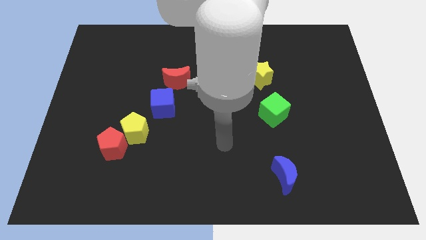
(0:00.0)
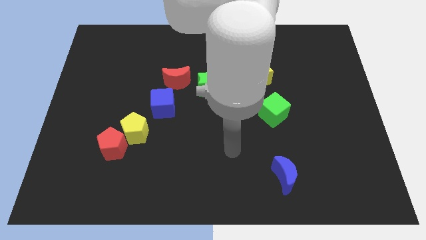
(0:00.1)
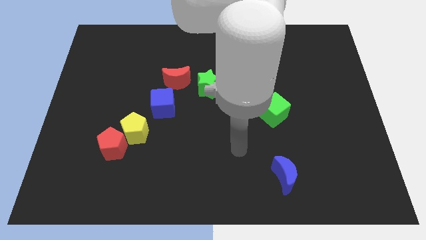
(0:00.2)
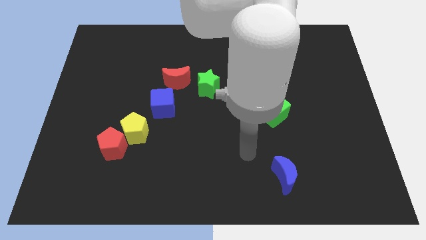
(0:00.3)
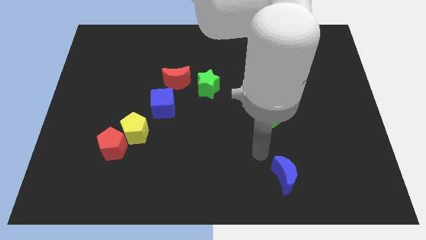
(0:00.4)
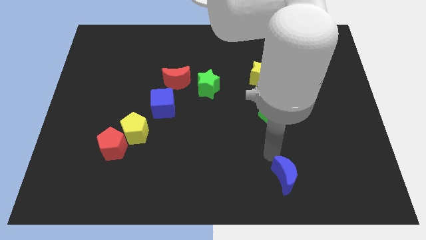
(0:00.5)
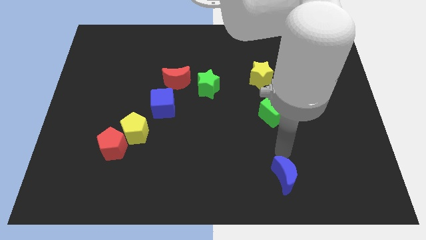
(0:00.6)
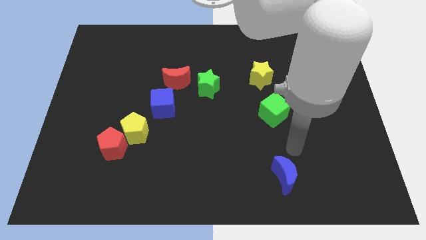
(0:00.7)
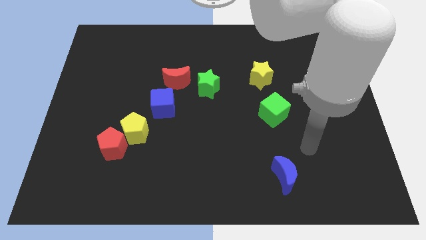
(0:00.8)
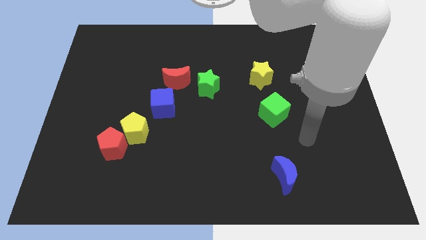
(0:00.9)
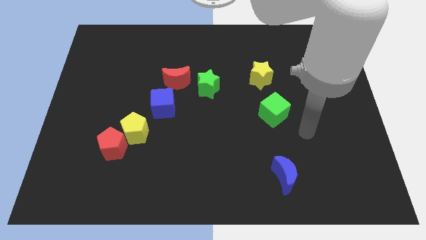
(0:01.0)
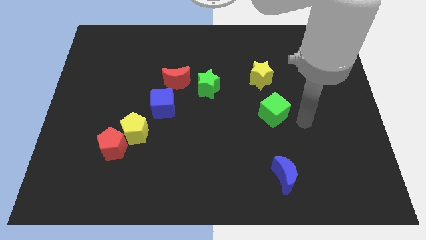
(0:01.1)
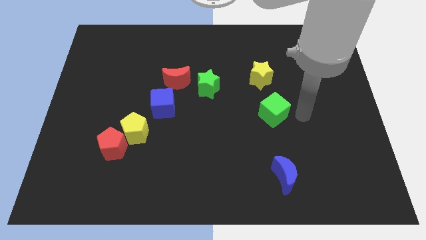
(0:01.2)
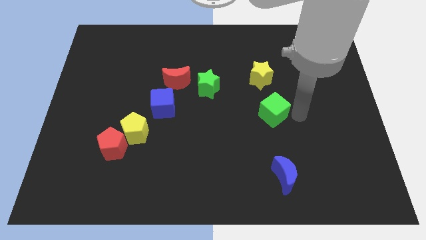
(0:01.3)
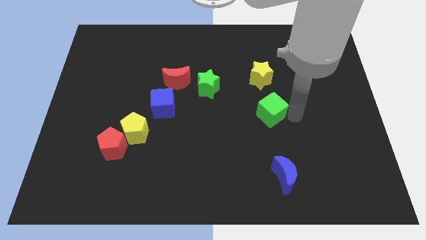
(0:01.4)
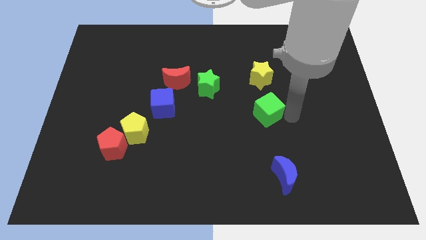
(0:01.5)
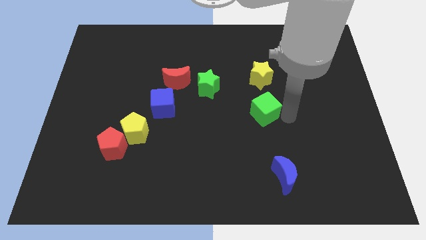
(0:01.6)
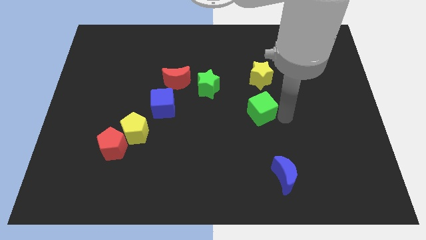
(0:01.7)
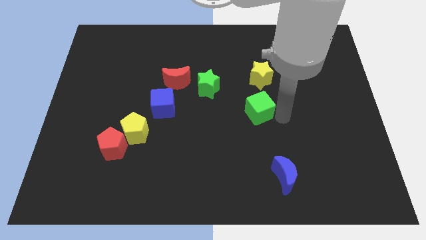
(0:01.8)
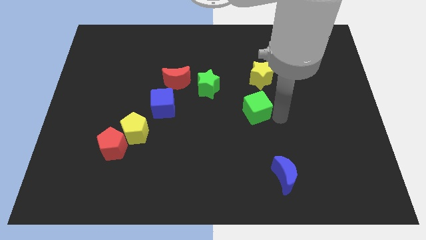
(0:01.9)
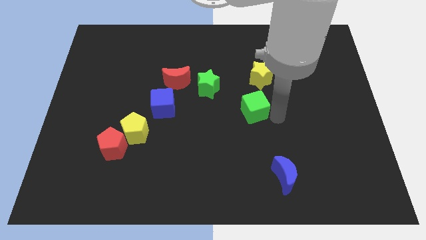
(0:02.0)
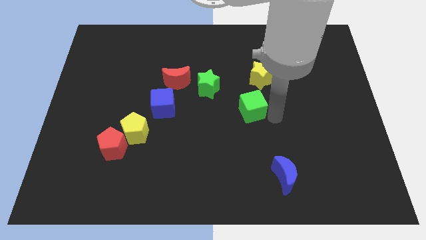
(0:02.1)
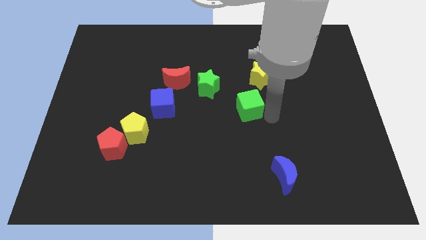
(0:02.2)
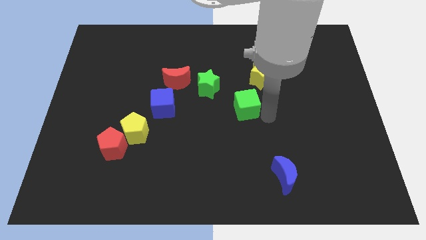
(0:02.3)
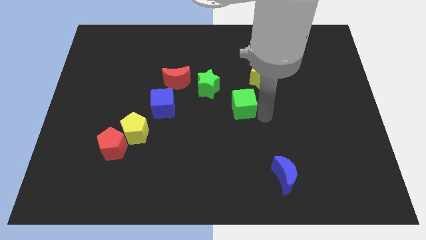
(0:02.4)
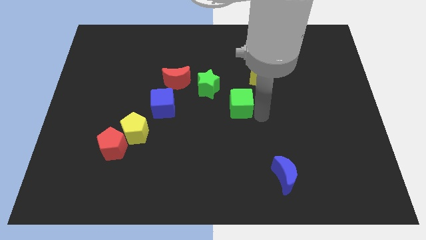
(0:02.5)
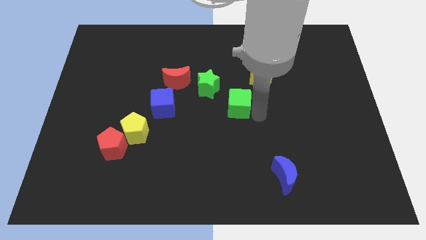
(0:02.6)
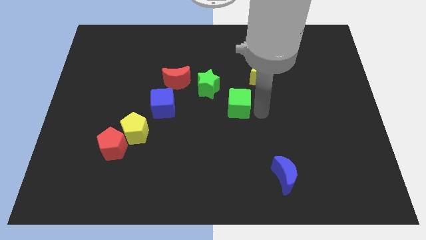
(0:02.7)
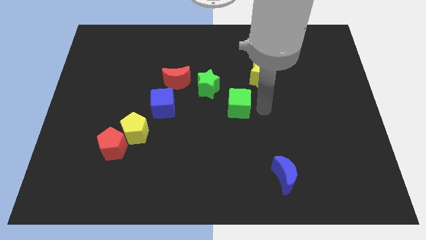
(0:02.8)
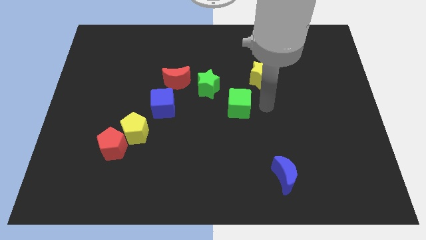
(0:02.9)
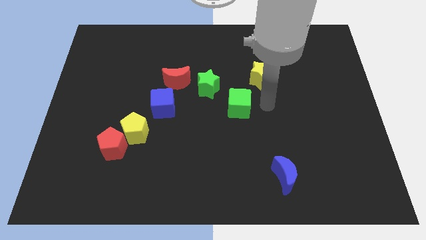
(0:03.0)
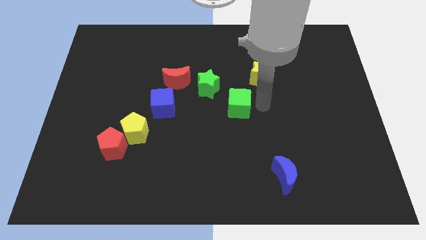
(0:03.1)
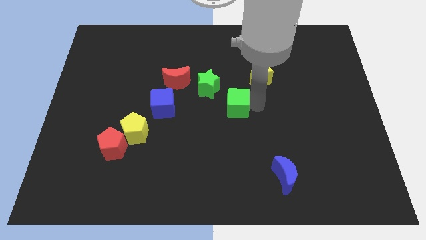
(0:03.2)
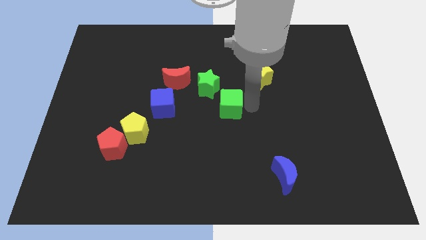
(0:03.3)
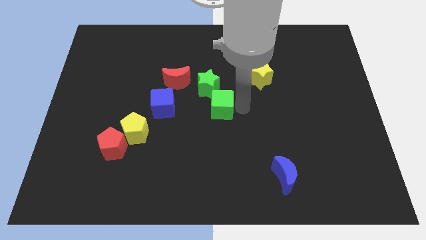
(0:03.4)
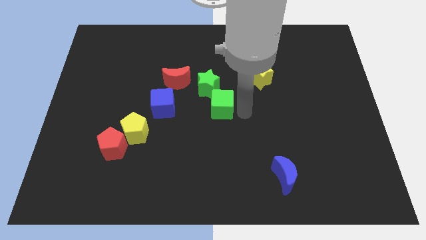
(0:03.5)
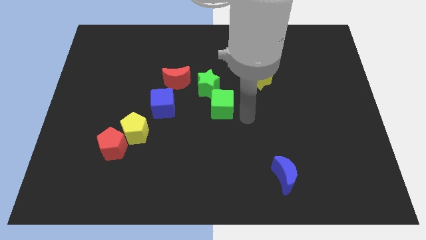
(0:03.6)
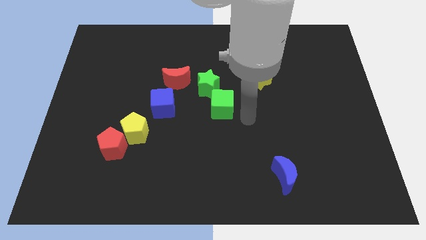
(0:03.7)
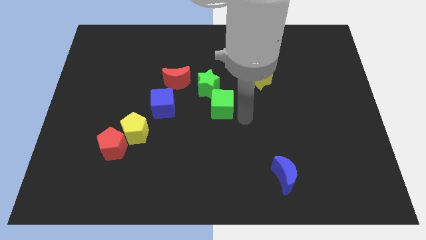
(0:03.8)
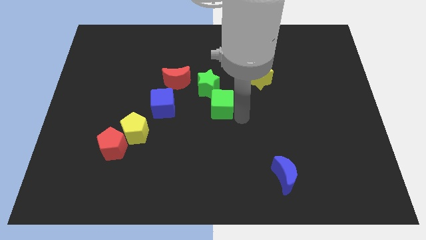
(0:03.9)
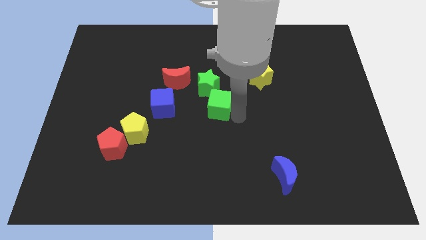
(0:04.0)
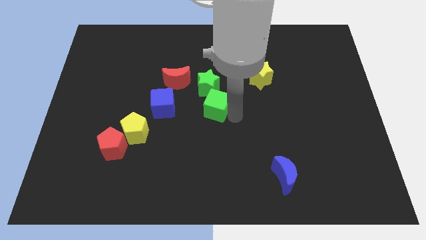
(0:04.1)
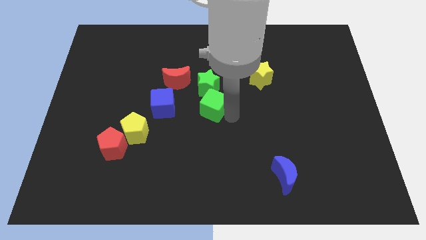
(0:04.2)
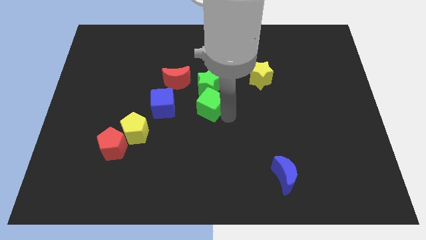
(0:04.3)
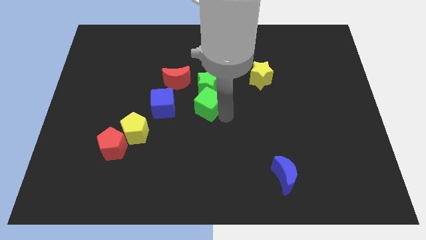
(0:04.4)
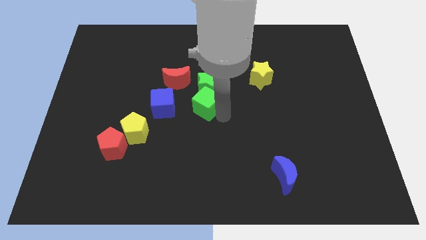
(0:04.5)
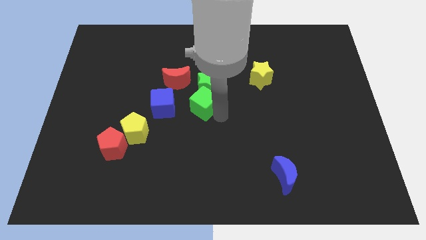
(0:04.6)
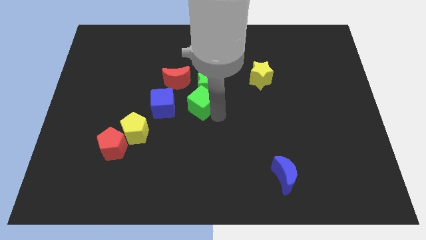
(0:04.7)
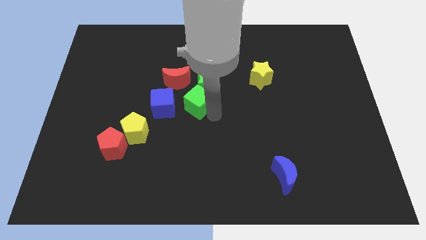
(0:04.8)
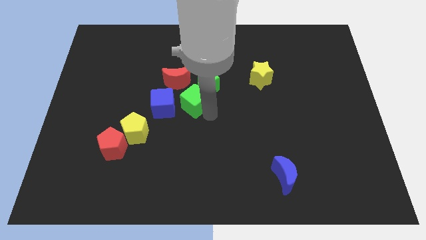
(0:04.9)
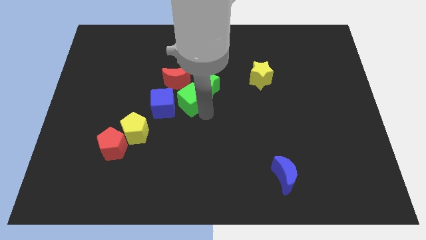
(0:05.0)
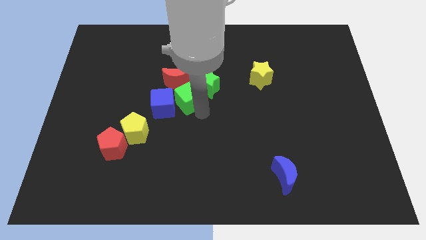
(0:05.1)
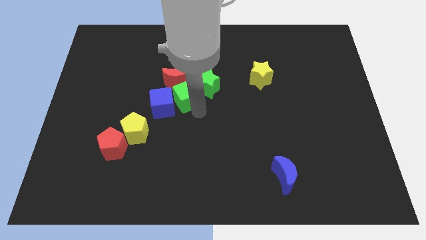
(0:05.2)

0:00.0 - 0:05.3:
slide the green cube towards the red moon

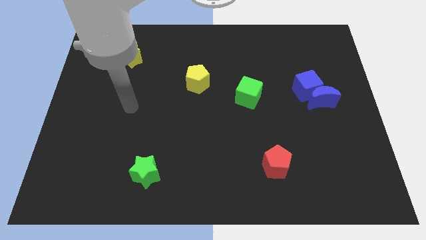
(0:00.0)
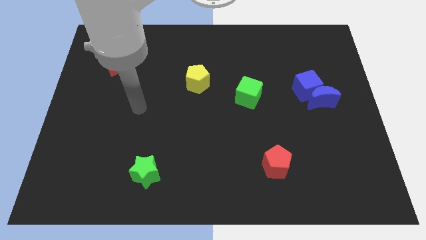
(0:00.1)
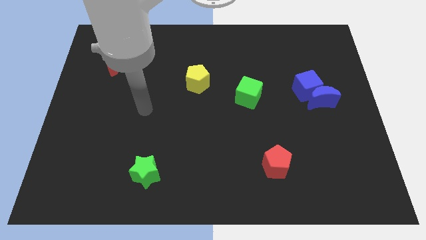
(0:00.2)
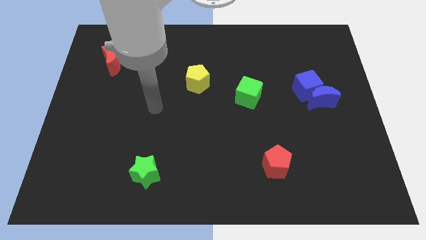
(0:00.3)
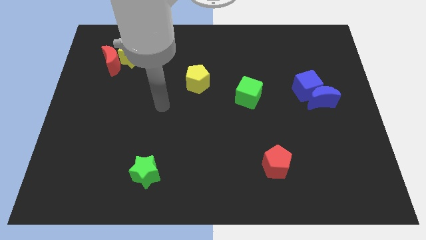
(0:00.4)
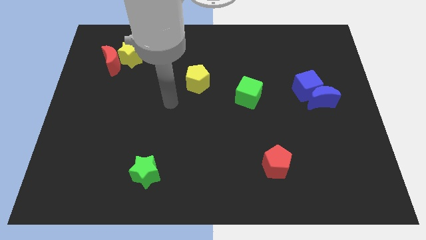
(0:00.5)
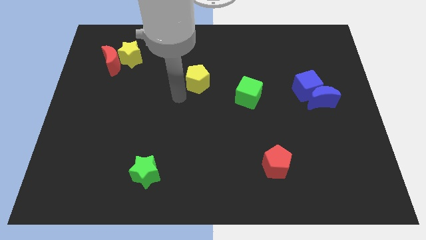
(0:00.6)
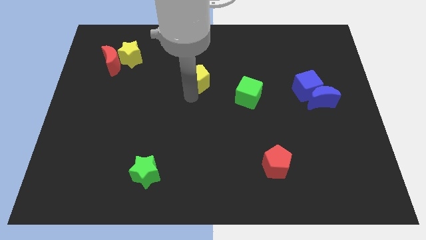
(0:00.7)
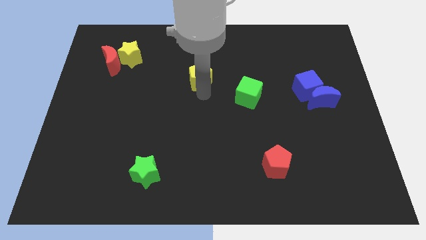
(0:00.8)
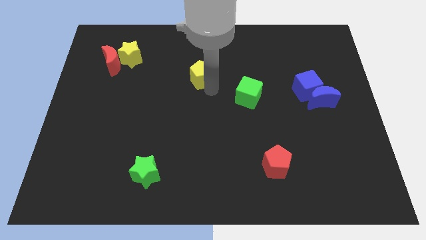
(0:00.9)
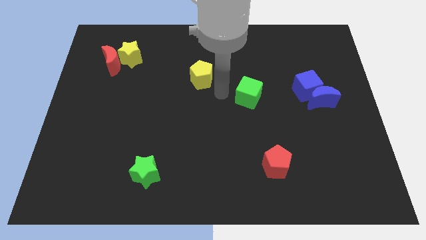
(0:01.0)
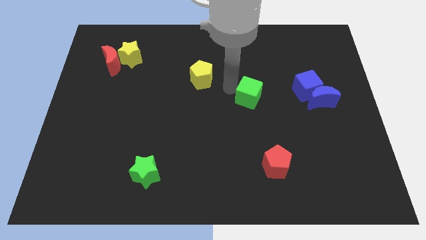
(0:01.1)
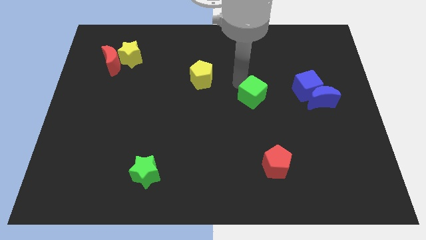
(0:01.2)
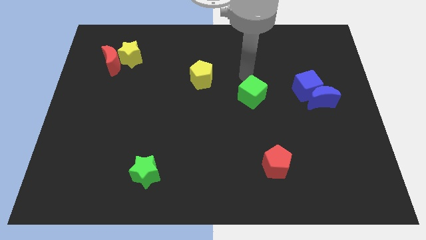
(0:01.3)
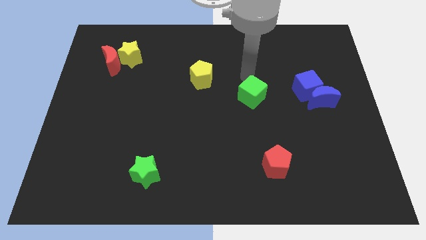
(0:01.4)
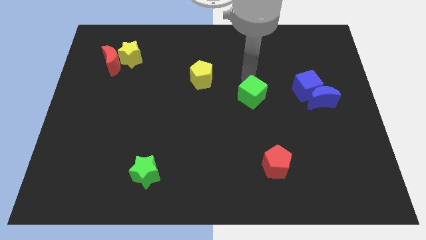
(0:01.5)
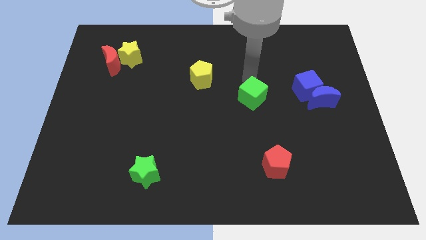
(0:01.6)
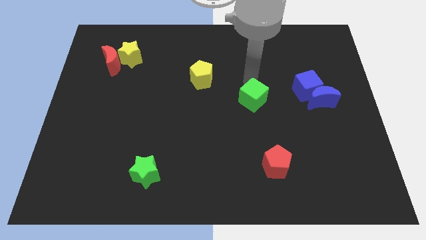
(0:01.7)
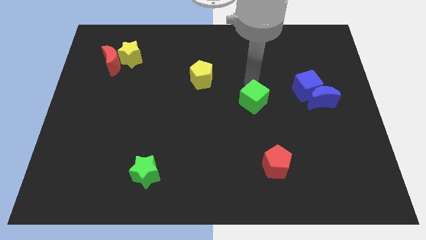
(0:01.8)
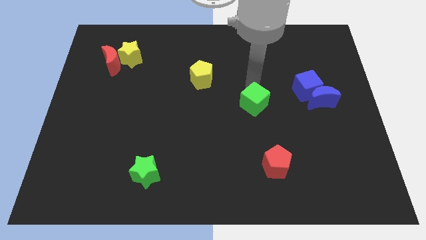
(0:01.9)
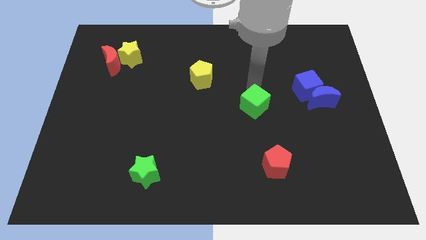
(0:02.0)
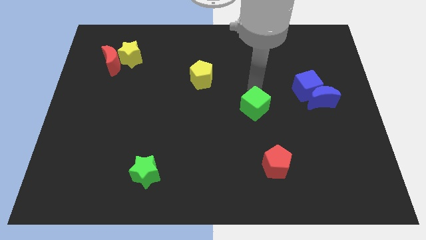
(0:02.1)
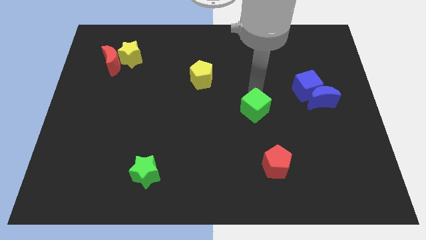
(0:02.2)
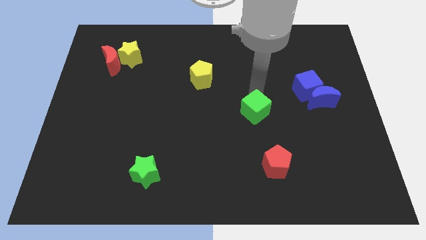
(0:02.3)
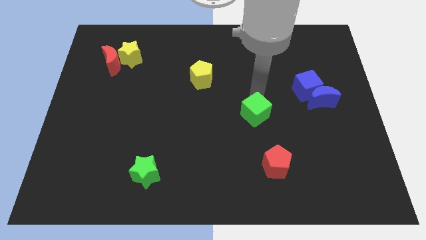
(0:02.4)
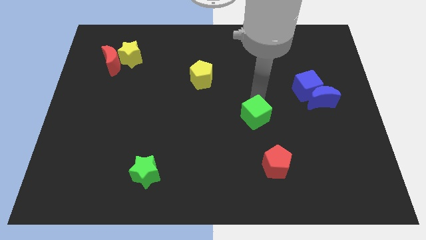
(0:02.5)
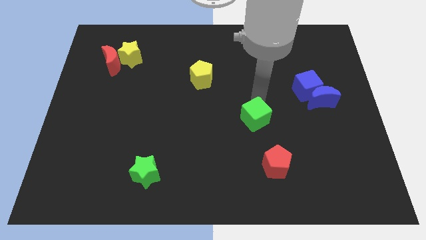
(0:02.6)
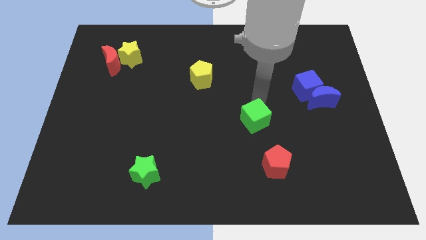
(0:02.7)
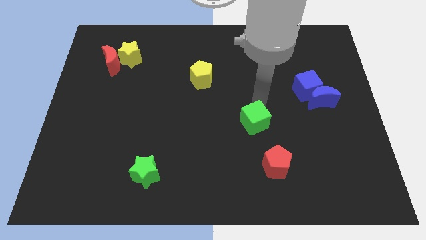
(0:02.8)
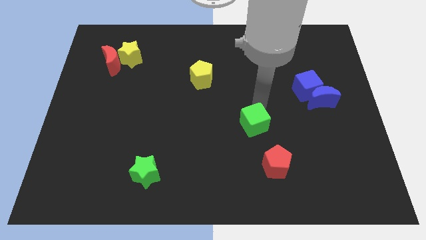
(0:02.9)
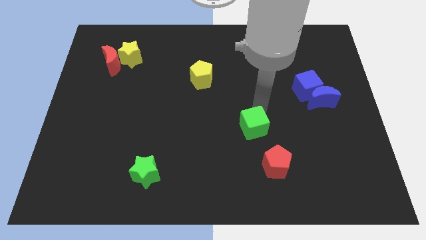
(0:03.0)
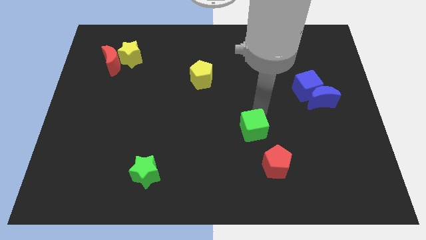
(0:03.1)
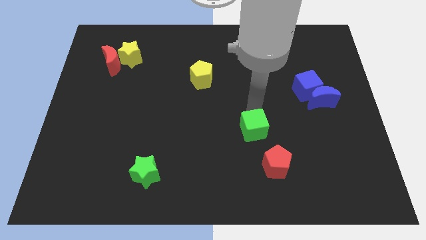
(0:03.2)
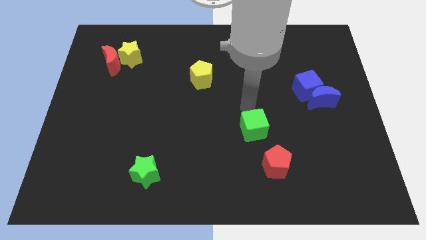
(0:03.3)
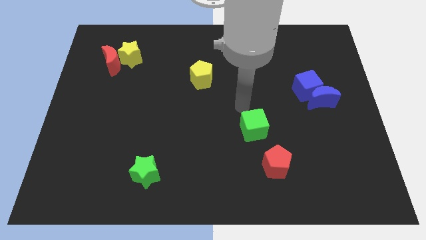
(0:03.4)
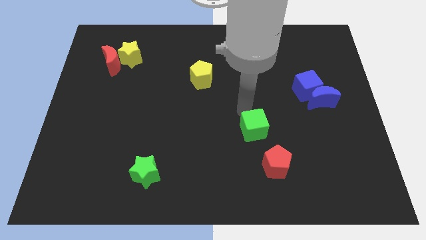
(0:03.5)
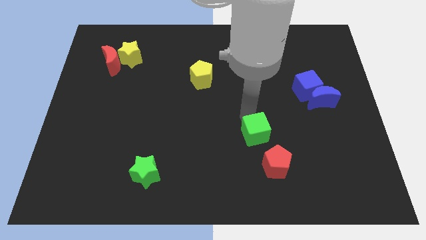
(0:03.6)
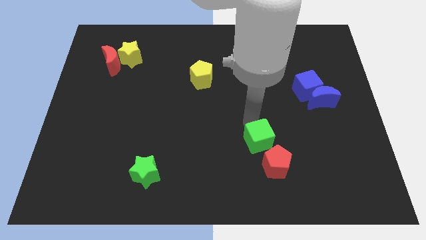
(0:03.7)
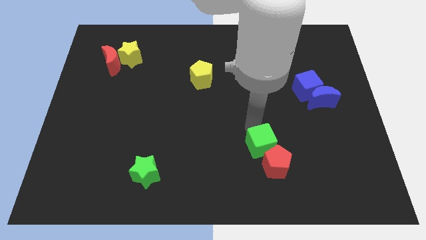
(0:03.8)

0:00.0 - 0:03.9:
push the green cube close to the red pentagon
